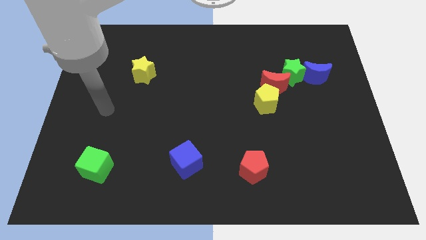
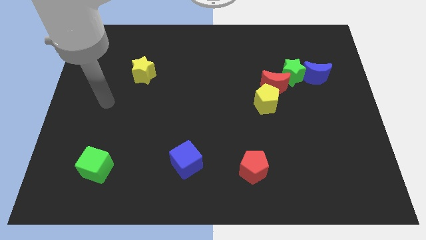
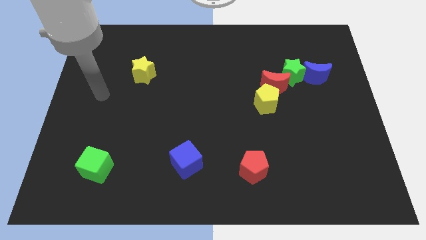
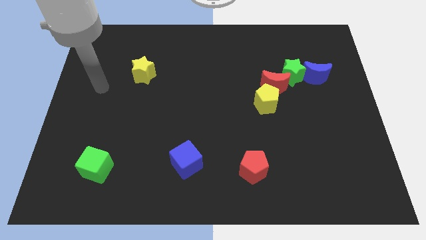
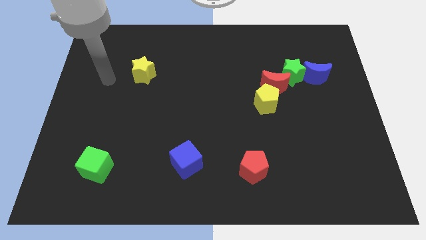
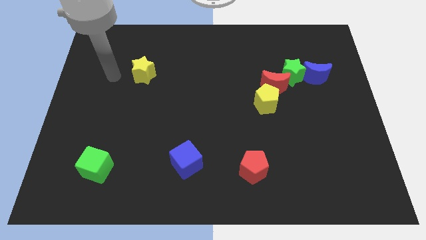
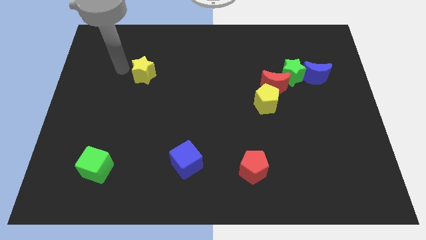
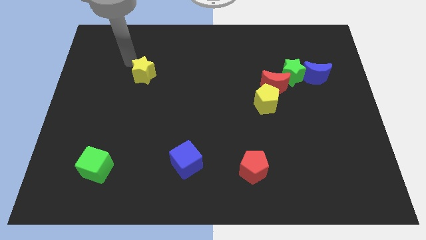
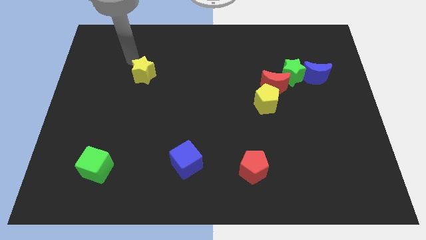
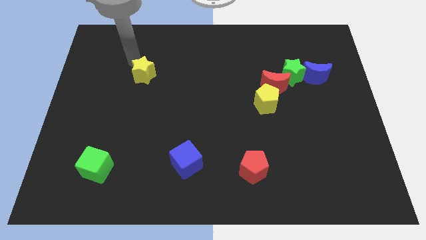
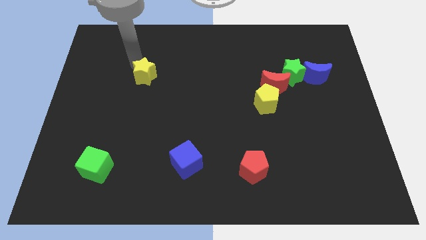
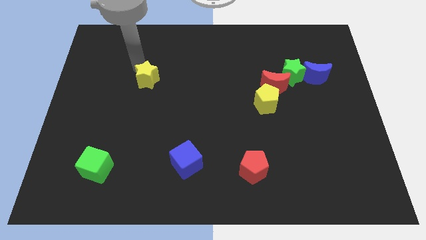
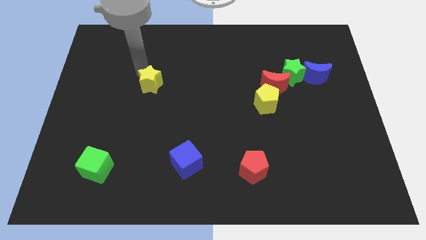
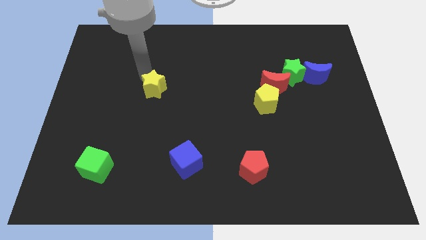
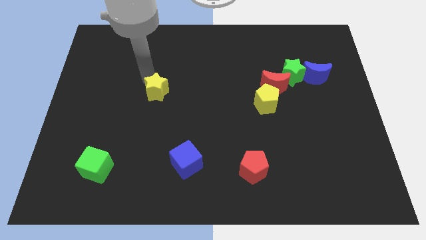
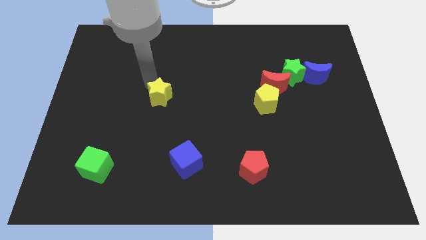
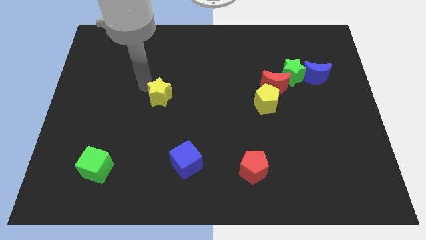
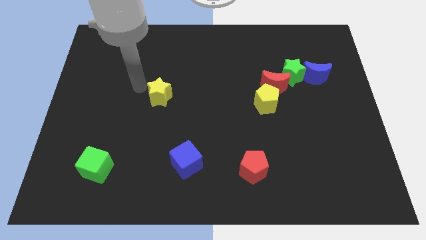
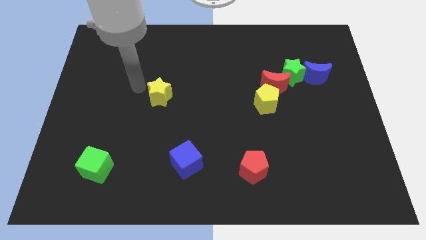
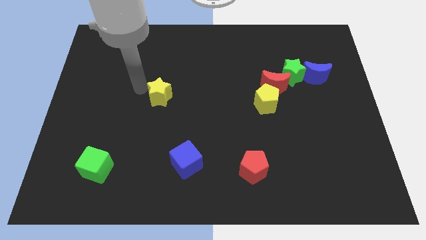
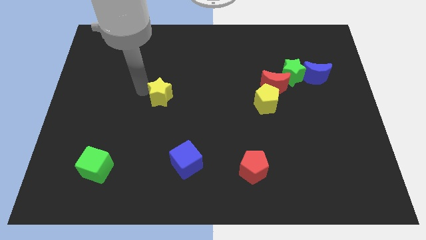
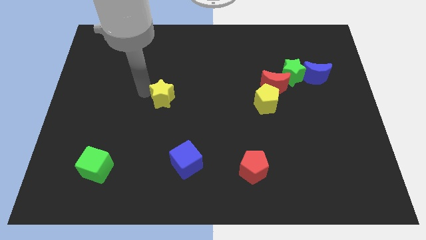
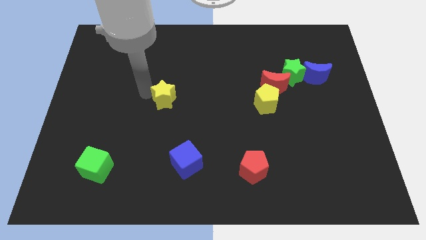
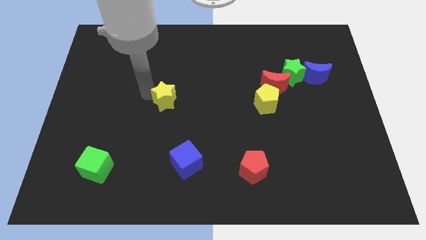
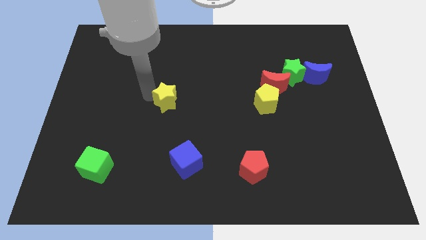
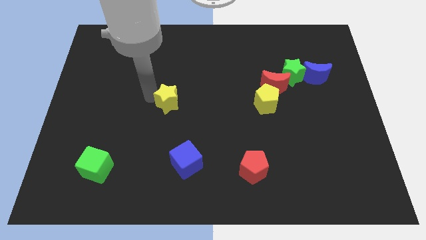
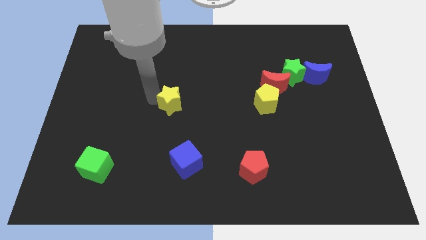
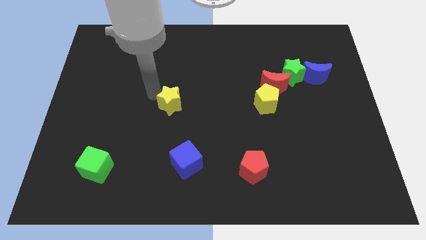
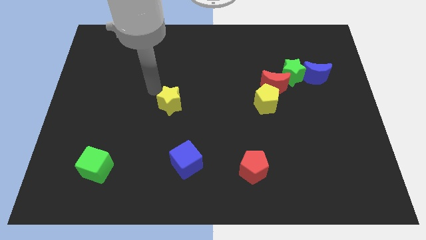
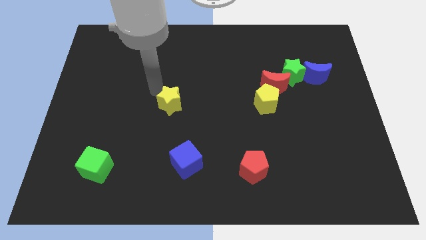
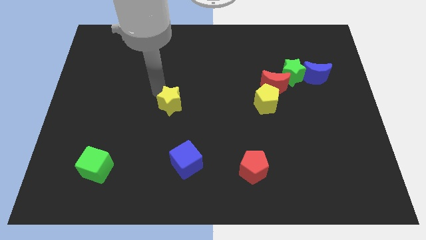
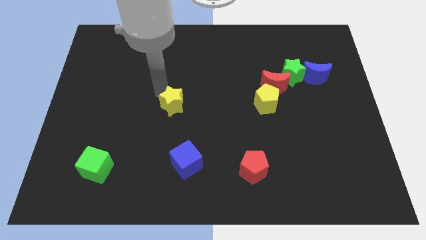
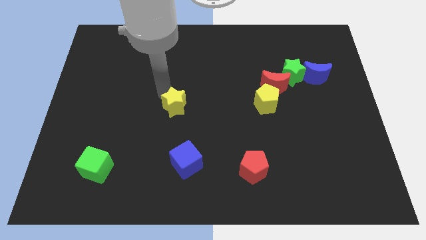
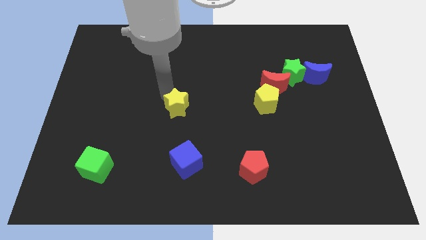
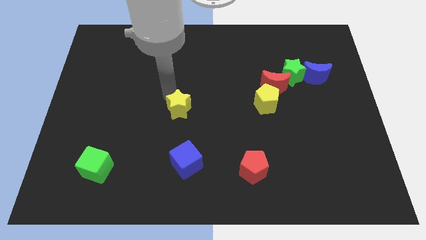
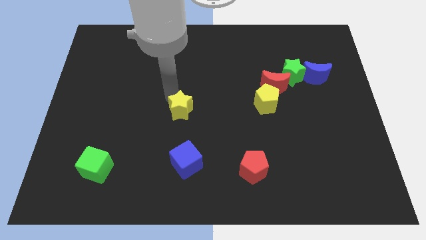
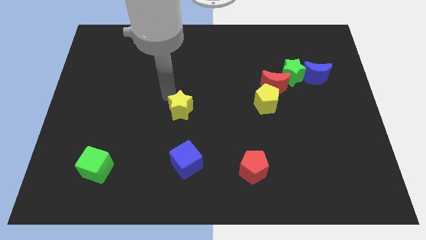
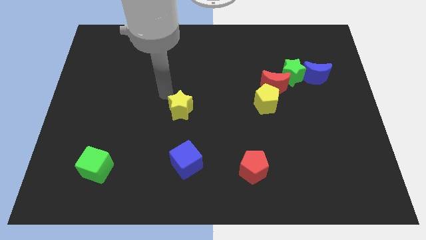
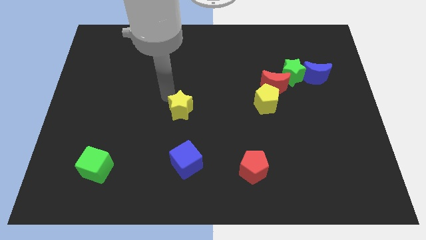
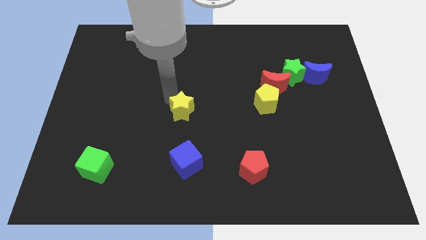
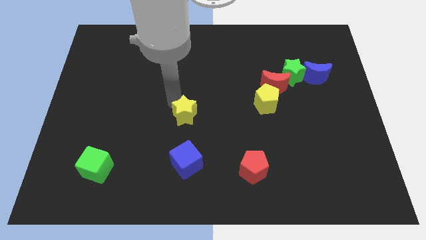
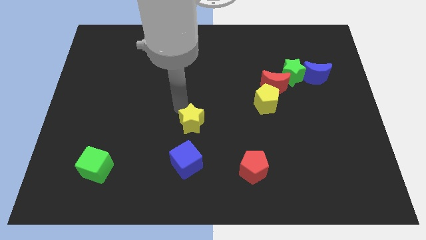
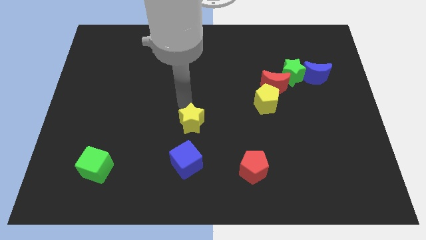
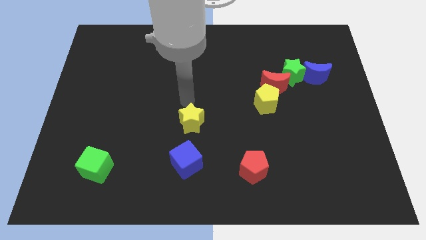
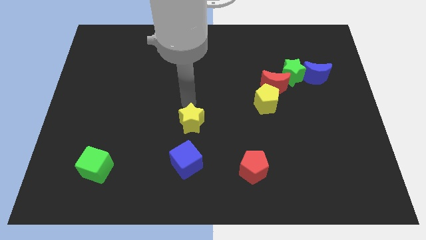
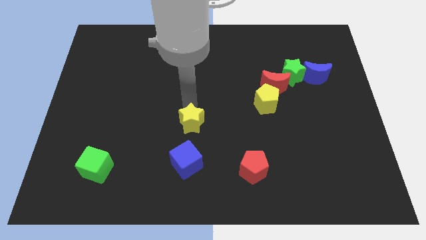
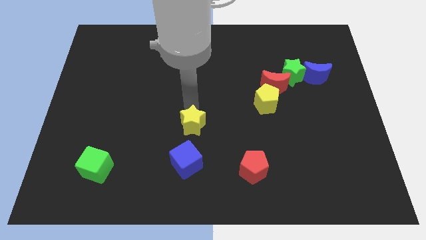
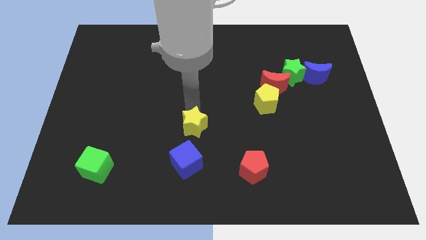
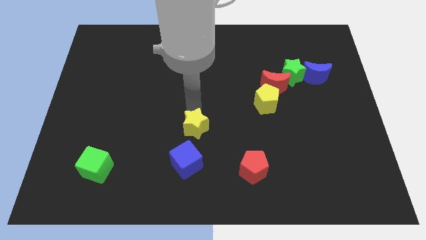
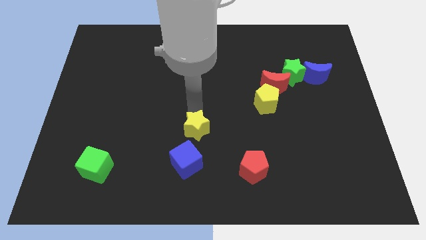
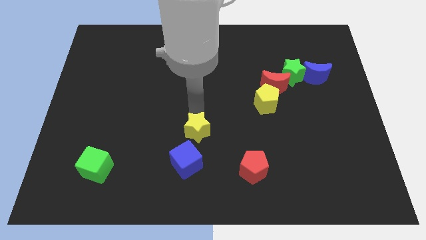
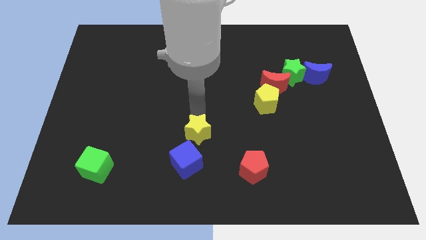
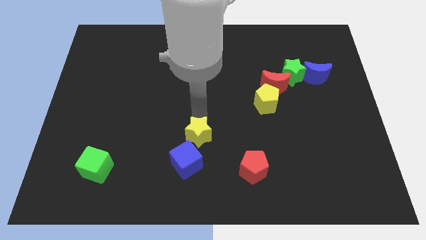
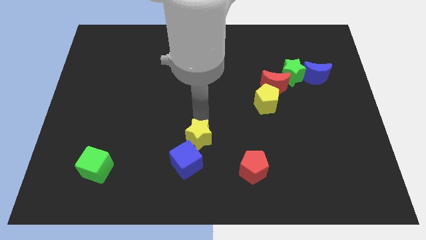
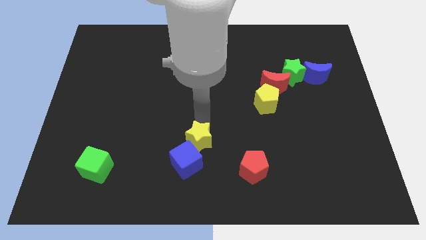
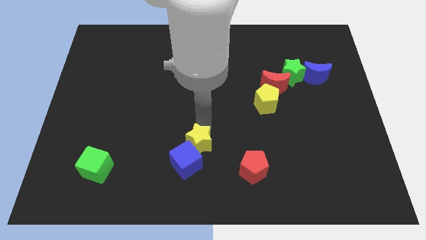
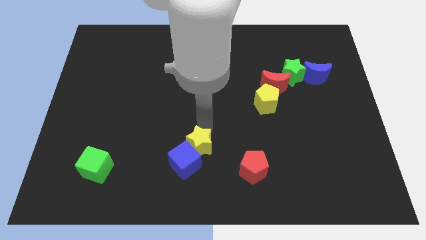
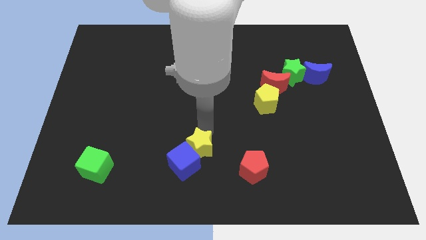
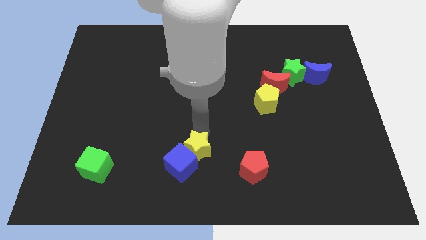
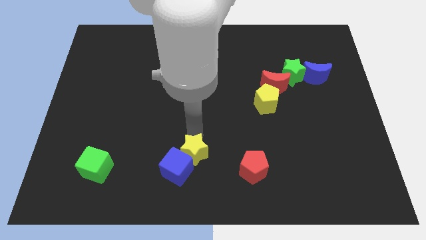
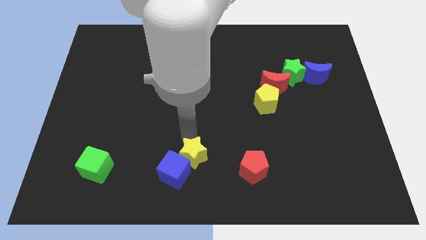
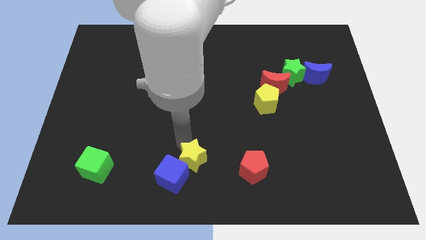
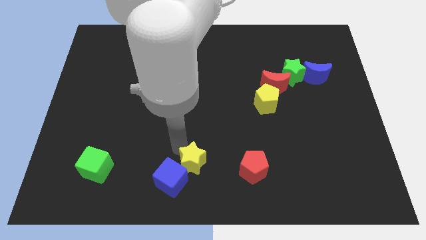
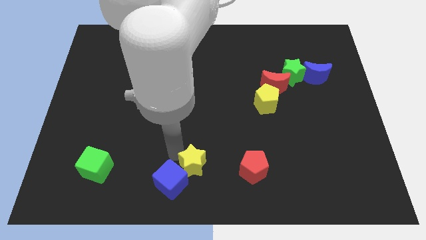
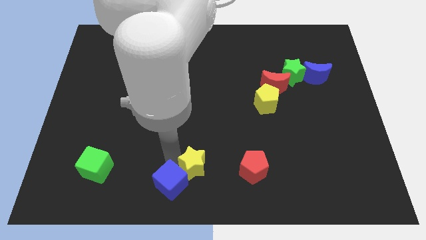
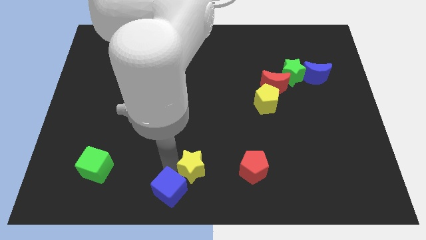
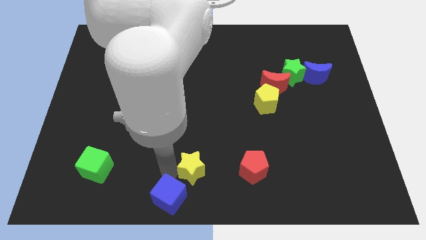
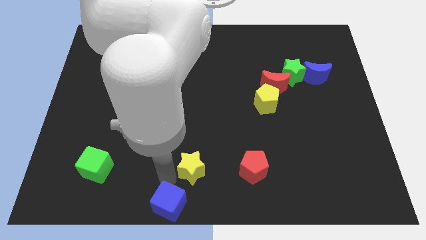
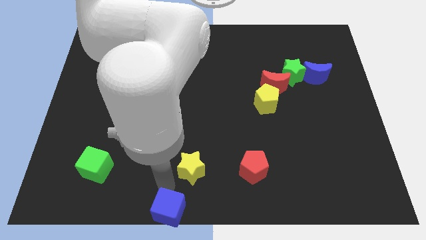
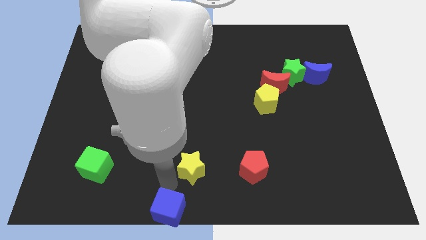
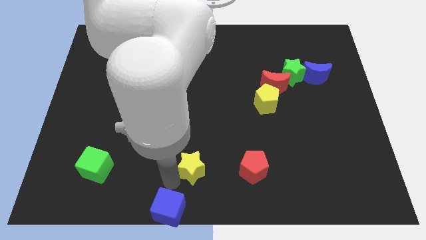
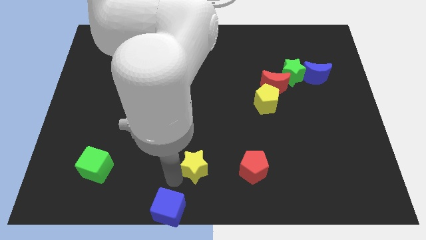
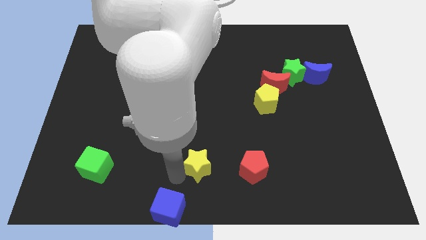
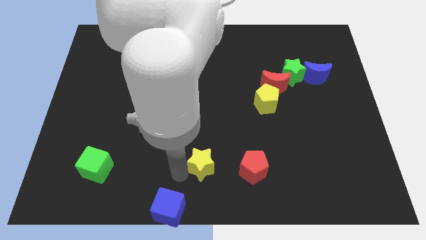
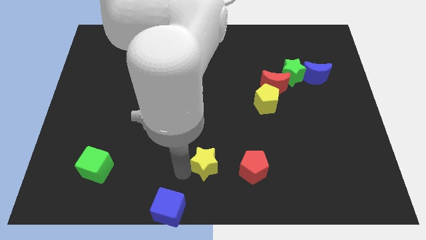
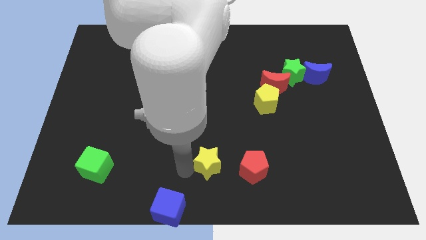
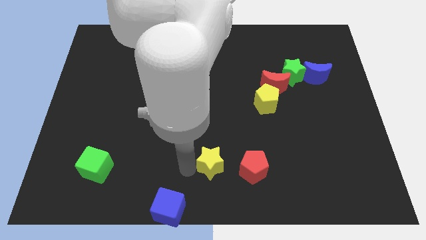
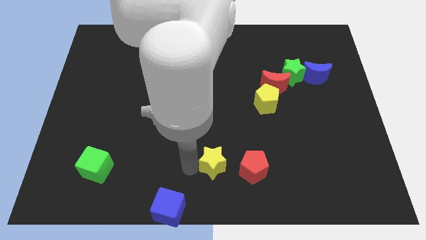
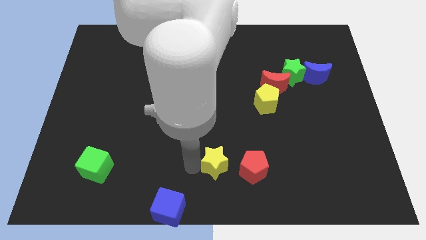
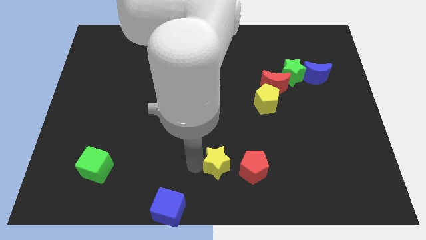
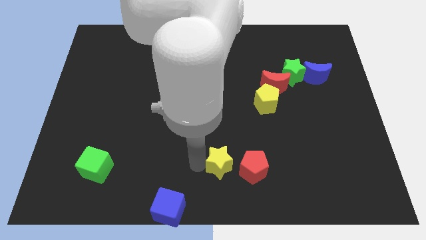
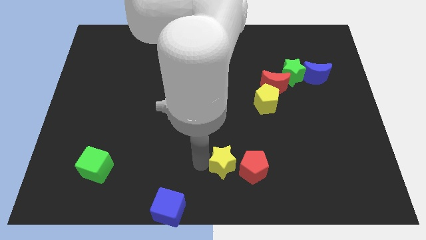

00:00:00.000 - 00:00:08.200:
push the yellow star towards the red pentagon
